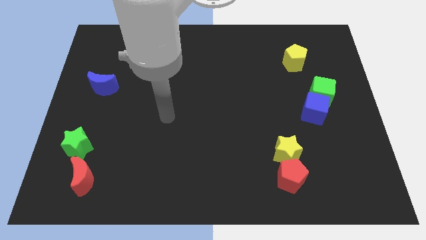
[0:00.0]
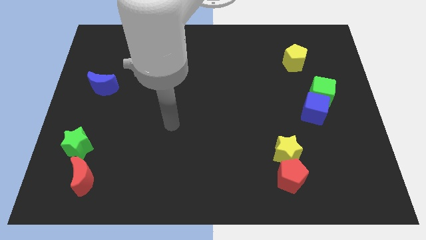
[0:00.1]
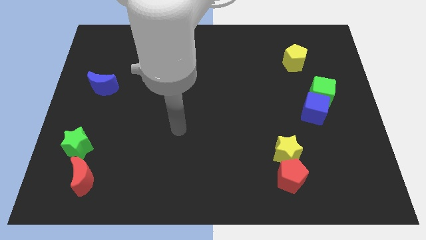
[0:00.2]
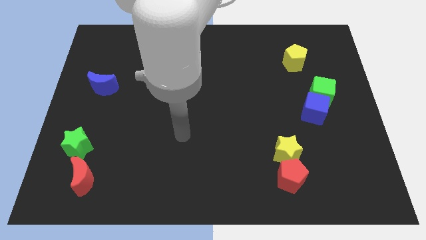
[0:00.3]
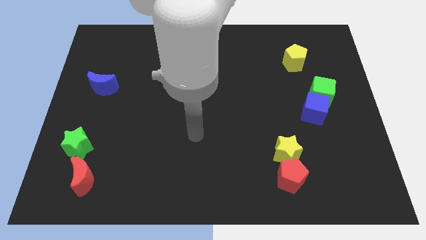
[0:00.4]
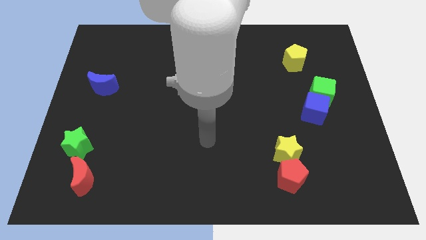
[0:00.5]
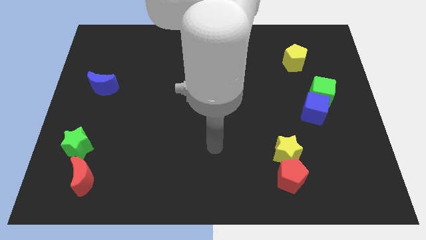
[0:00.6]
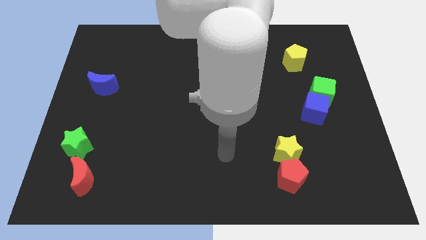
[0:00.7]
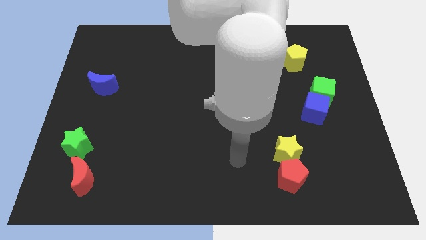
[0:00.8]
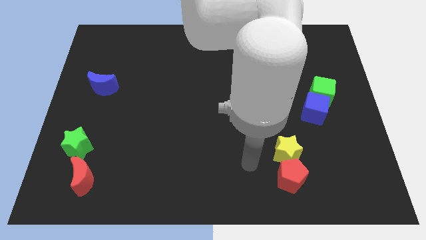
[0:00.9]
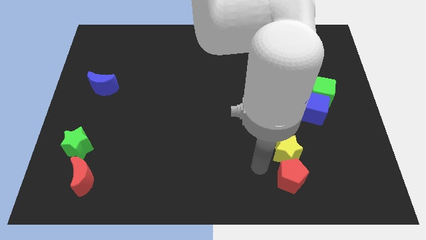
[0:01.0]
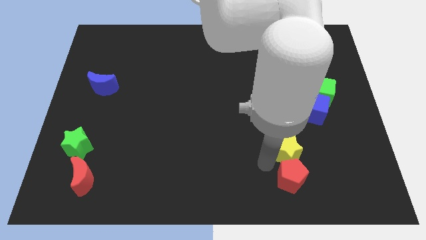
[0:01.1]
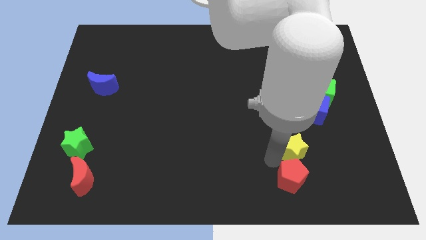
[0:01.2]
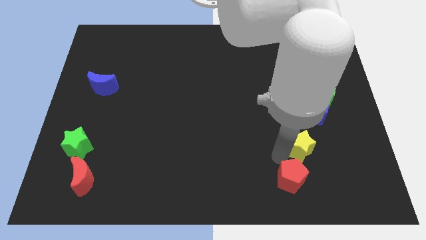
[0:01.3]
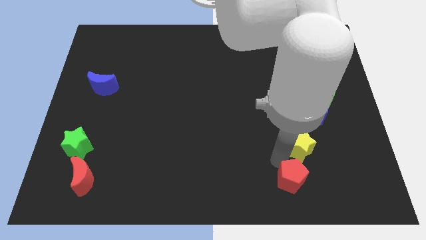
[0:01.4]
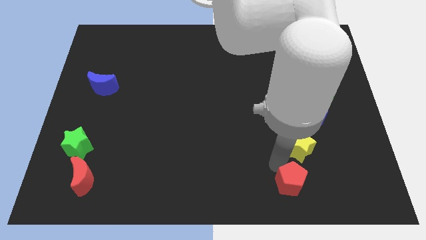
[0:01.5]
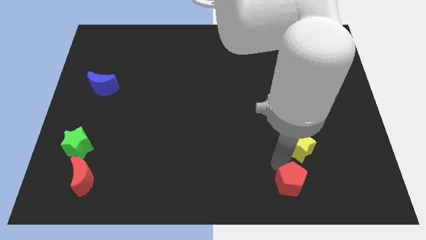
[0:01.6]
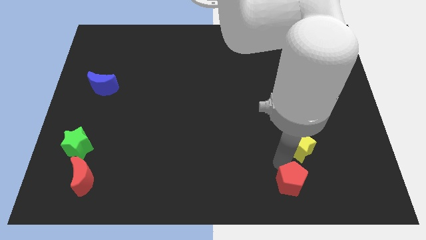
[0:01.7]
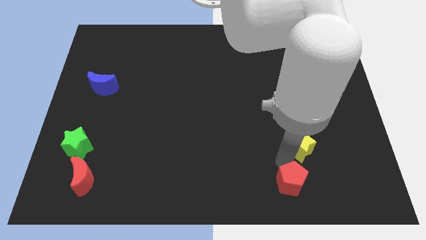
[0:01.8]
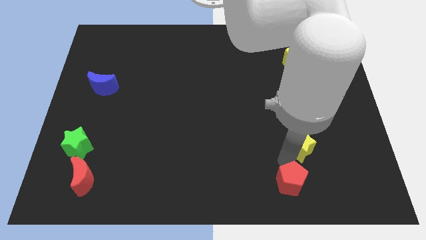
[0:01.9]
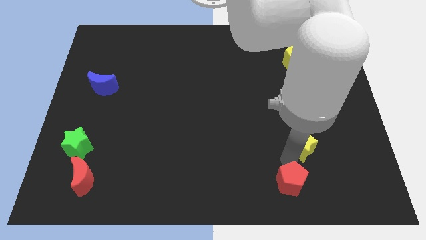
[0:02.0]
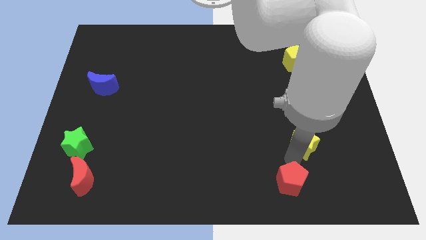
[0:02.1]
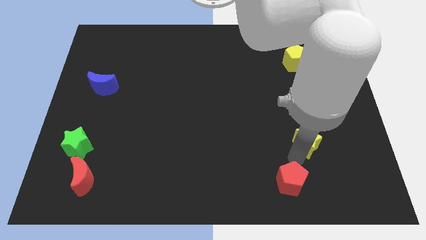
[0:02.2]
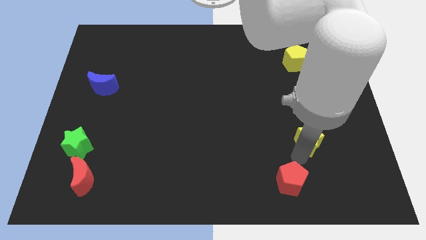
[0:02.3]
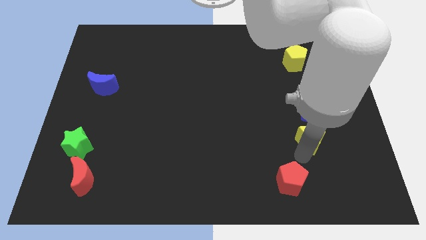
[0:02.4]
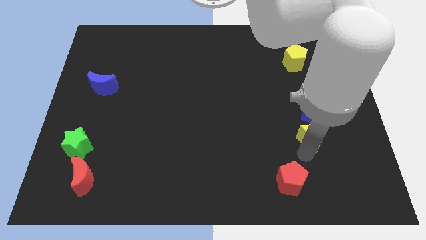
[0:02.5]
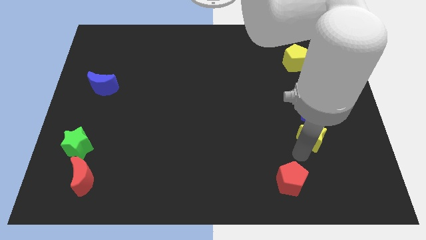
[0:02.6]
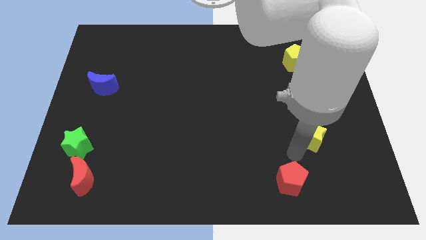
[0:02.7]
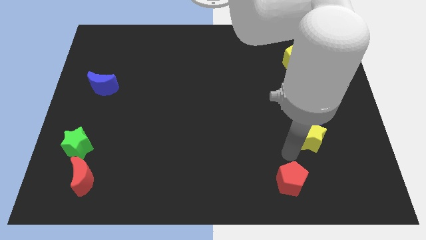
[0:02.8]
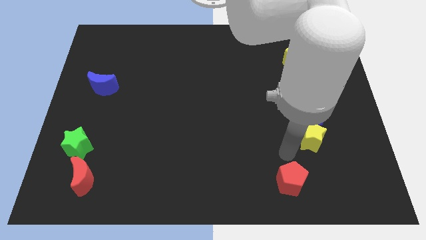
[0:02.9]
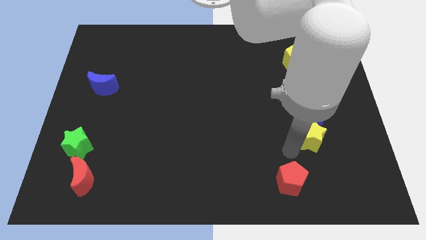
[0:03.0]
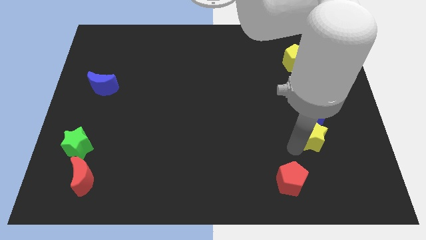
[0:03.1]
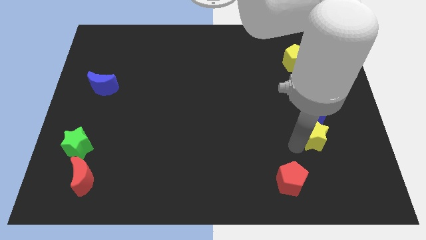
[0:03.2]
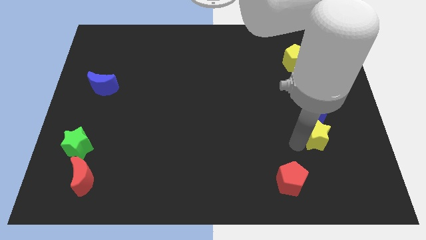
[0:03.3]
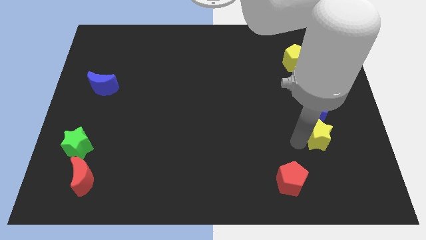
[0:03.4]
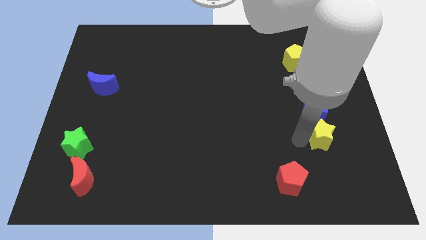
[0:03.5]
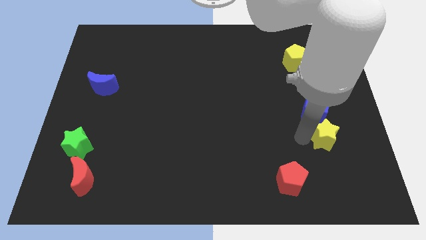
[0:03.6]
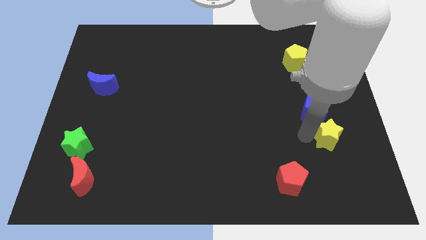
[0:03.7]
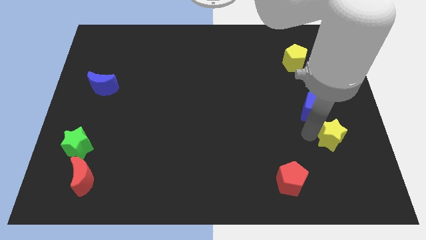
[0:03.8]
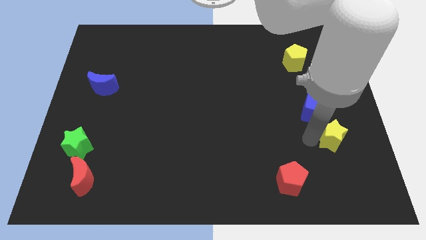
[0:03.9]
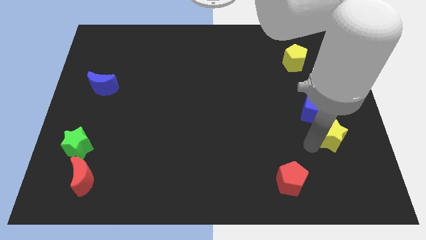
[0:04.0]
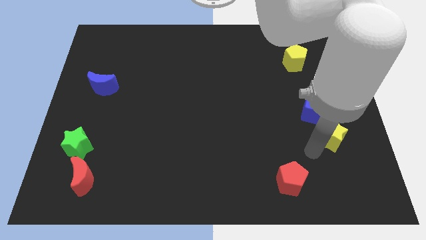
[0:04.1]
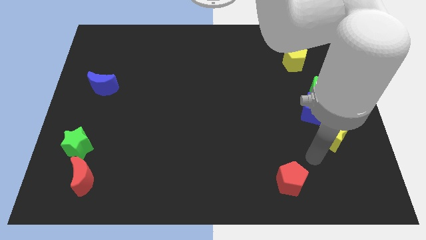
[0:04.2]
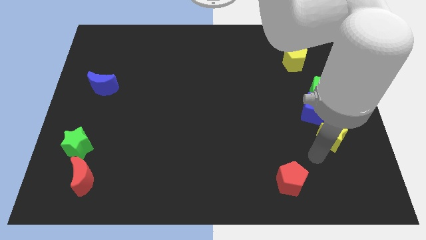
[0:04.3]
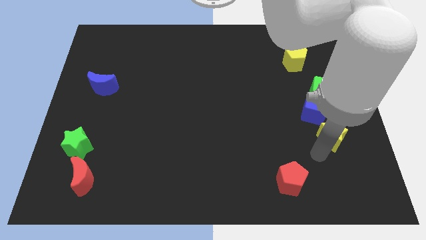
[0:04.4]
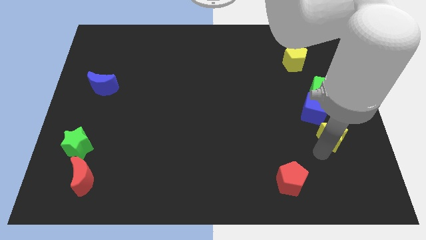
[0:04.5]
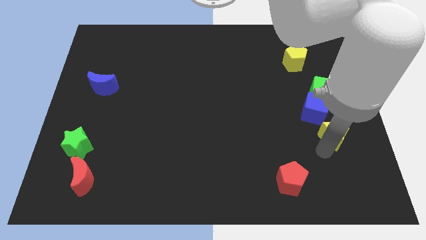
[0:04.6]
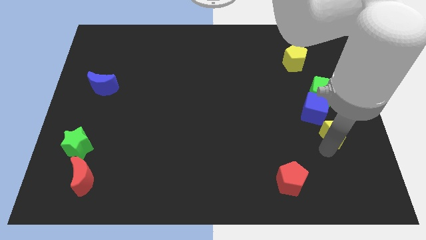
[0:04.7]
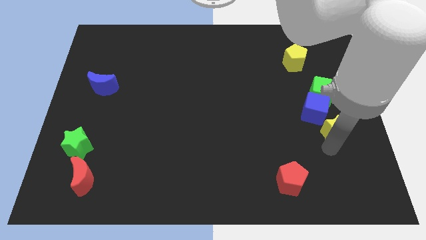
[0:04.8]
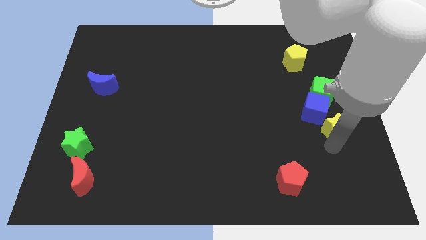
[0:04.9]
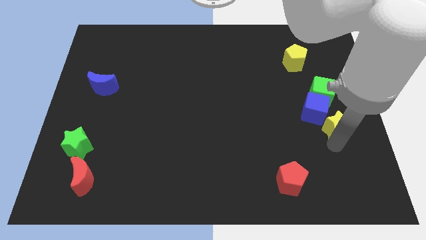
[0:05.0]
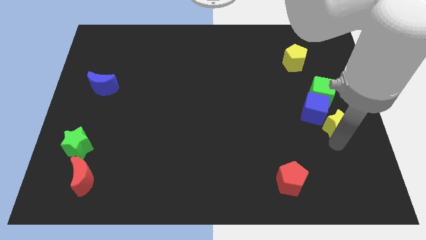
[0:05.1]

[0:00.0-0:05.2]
move the yellow star to the right side of the board

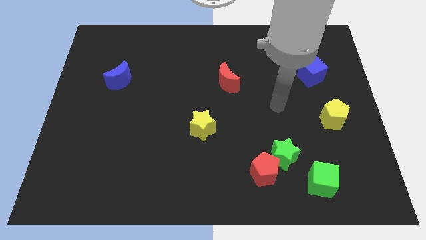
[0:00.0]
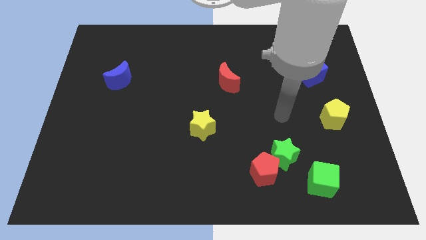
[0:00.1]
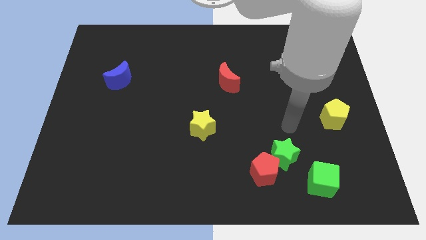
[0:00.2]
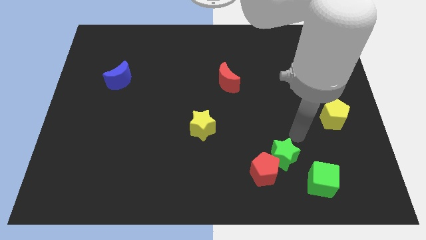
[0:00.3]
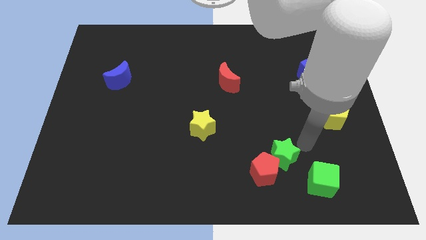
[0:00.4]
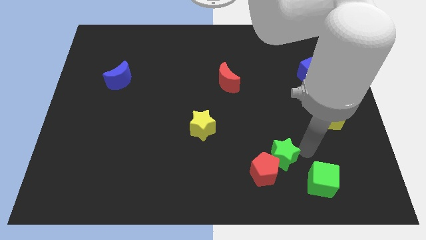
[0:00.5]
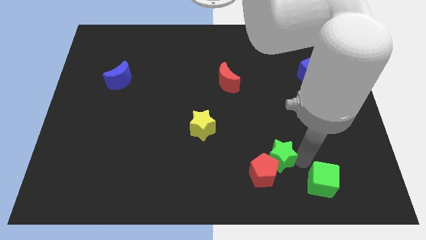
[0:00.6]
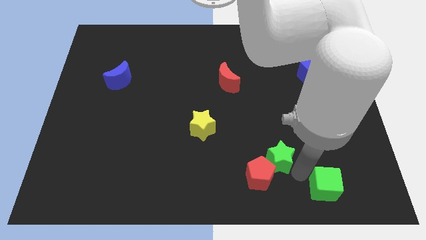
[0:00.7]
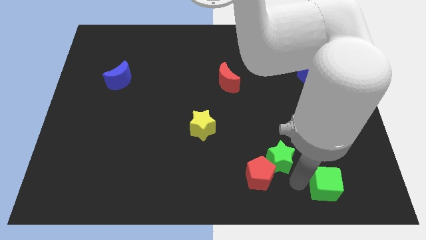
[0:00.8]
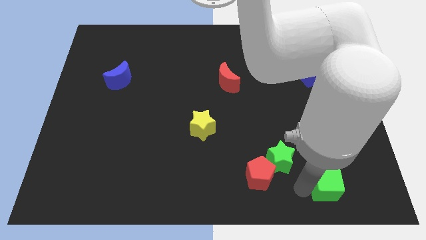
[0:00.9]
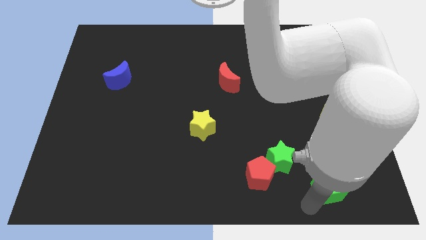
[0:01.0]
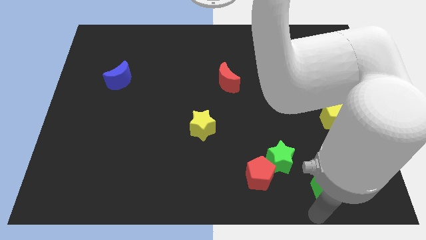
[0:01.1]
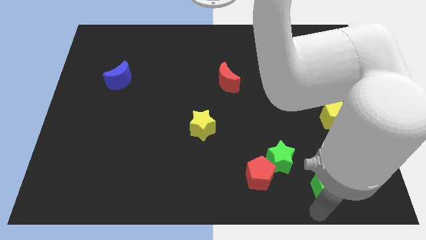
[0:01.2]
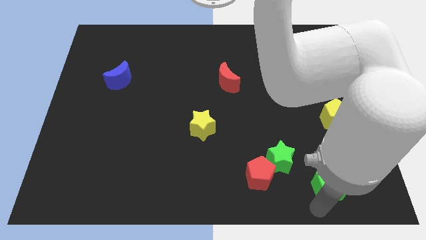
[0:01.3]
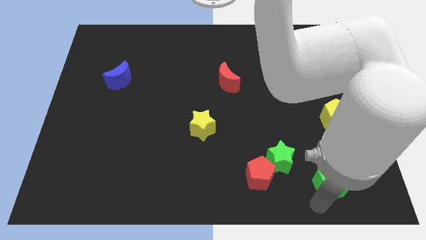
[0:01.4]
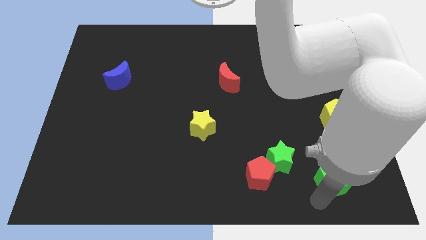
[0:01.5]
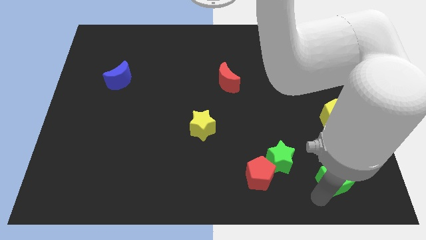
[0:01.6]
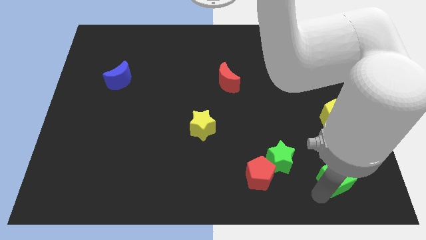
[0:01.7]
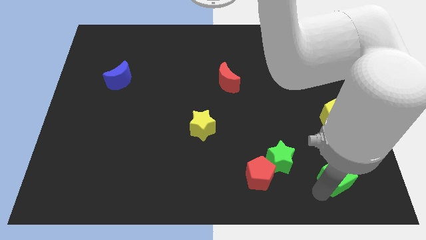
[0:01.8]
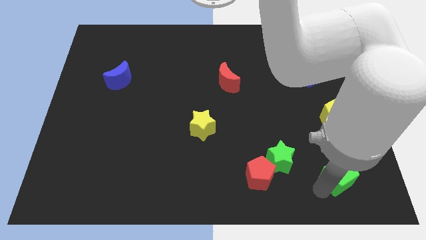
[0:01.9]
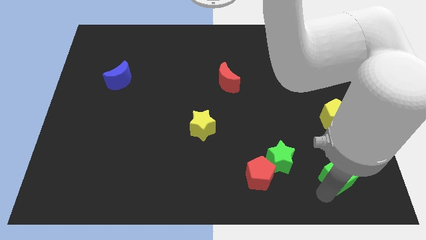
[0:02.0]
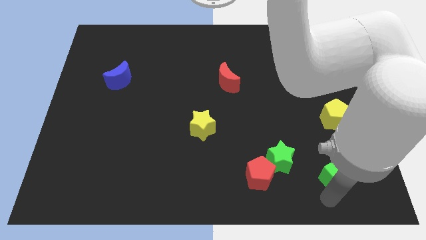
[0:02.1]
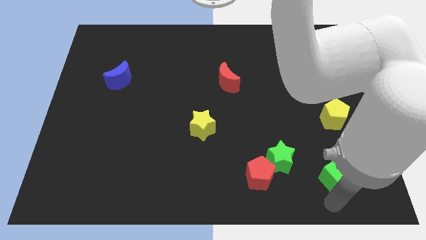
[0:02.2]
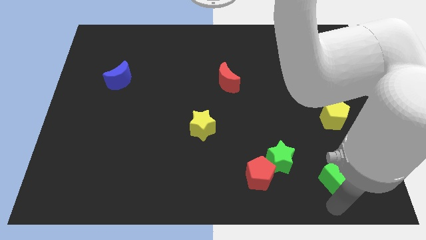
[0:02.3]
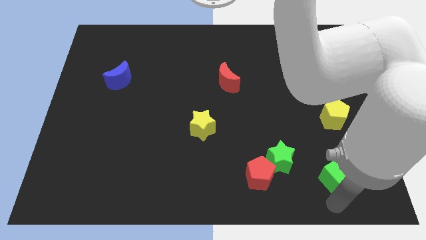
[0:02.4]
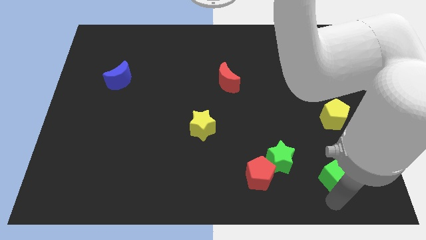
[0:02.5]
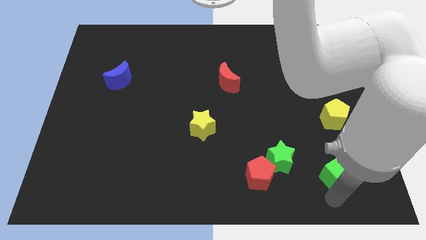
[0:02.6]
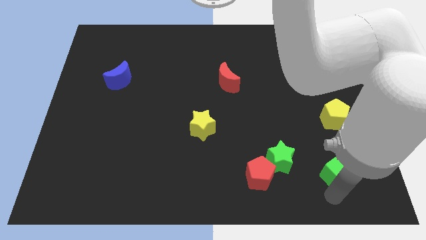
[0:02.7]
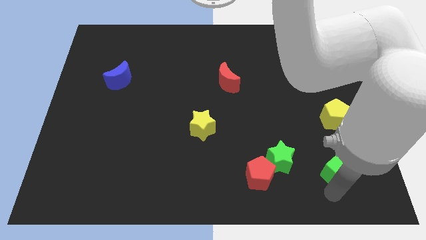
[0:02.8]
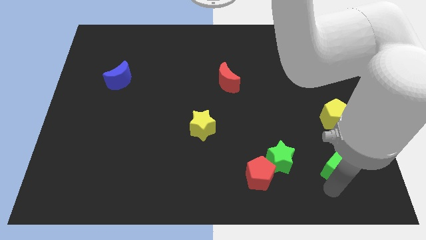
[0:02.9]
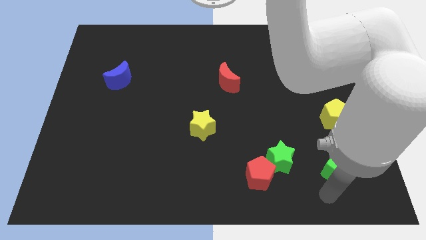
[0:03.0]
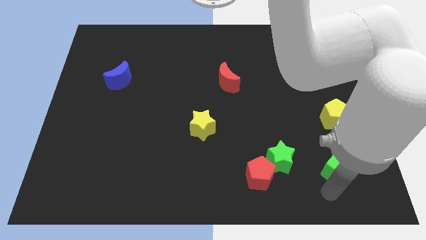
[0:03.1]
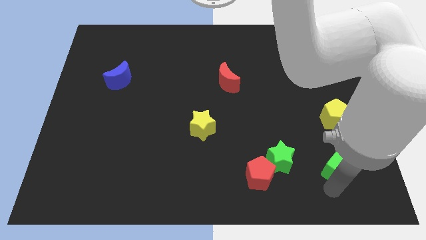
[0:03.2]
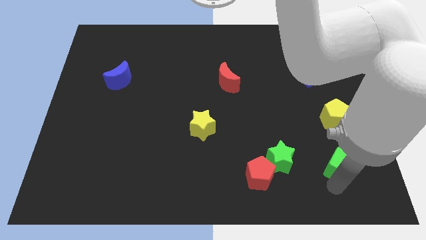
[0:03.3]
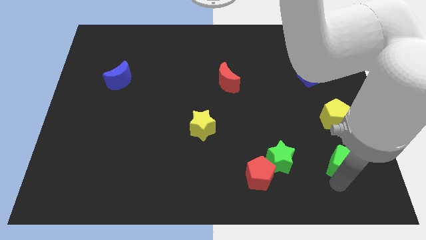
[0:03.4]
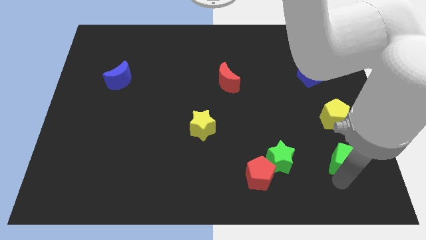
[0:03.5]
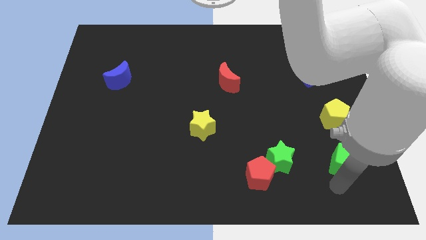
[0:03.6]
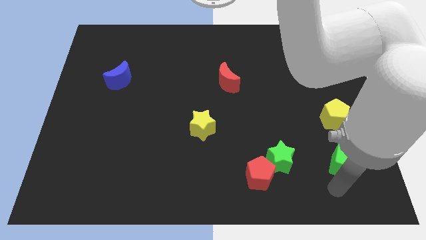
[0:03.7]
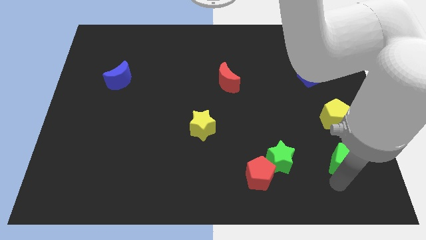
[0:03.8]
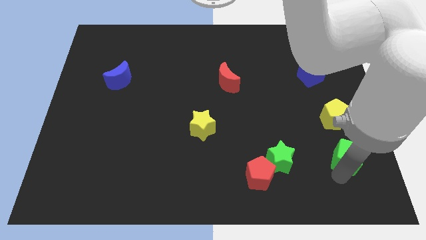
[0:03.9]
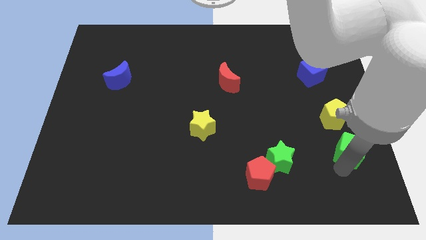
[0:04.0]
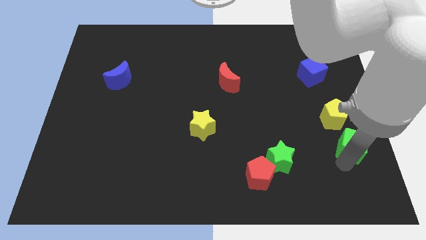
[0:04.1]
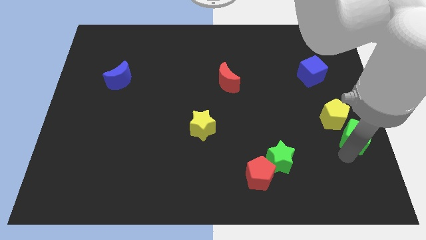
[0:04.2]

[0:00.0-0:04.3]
move the green cube to the center right
